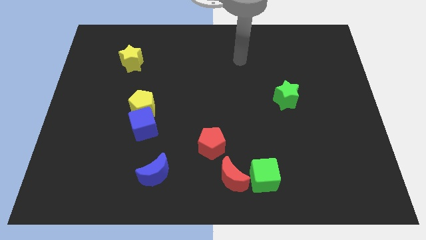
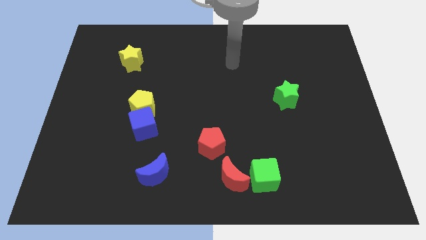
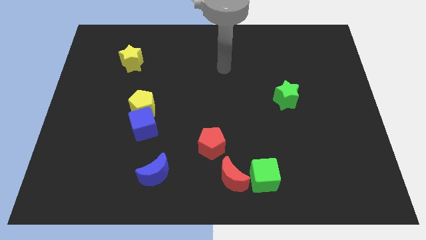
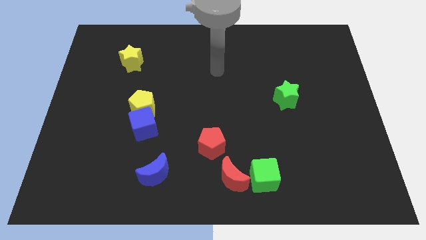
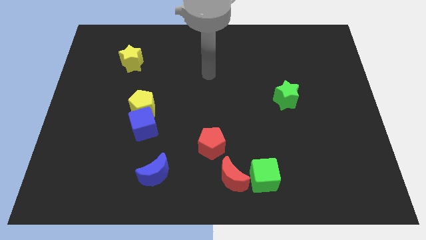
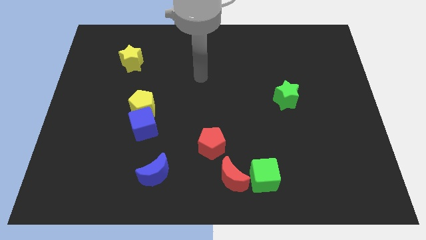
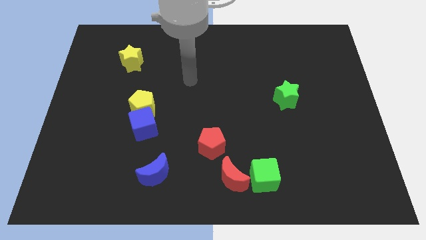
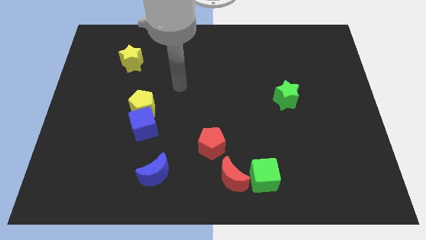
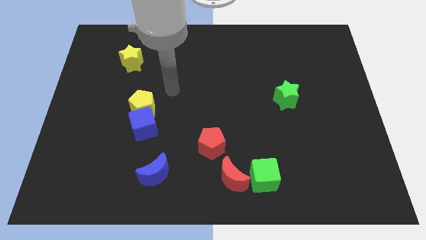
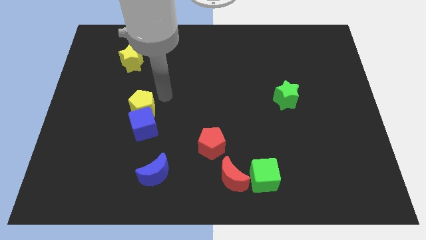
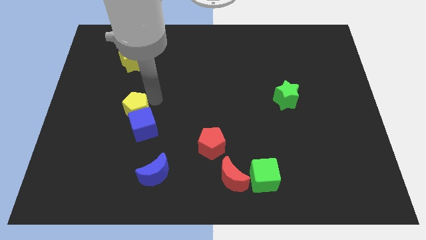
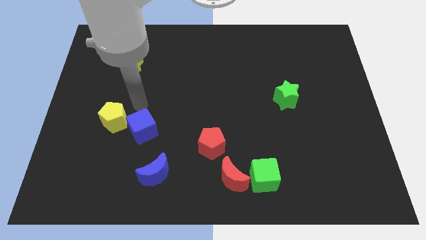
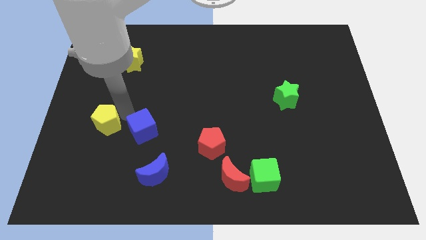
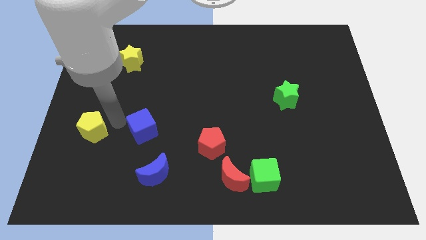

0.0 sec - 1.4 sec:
pull the blue cube apart from the yellow pentagon

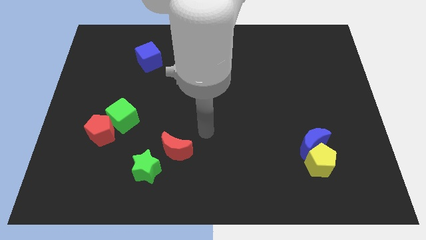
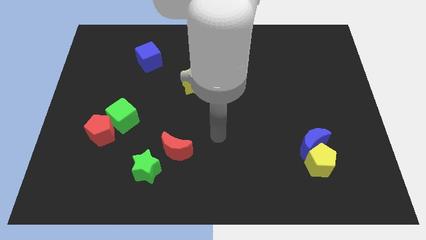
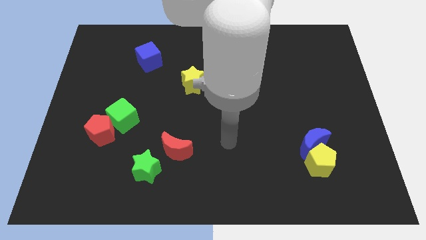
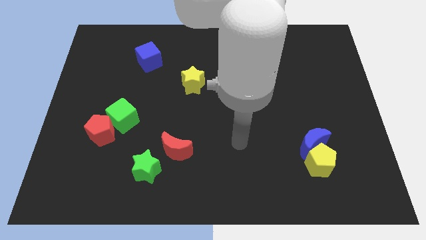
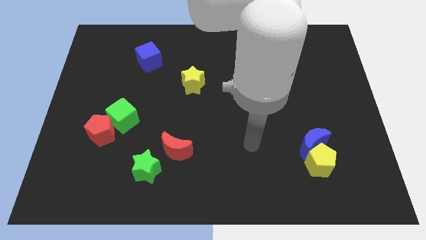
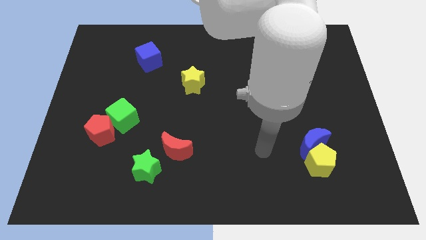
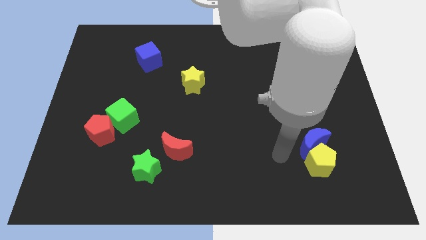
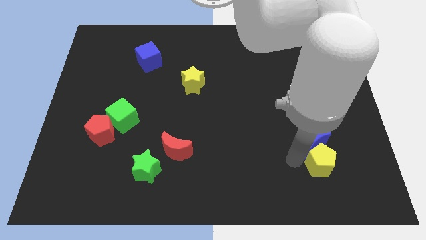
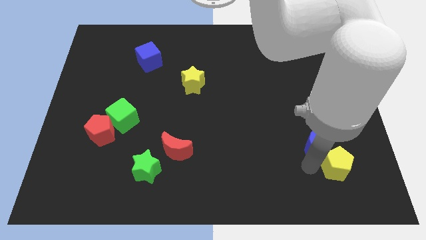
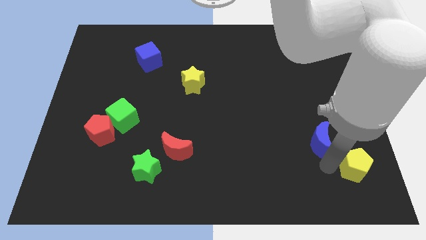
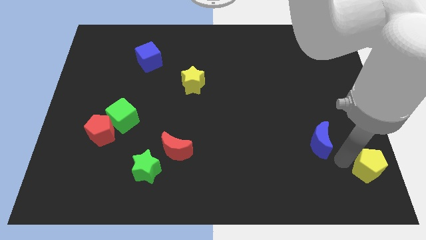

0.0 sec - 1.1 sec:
move the blue moon away from the yellow pentagon

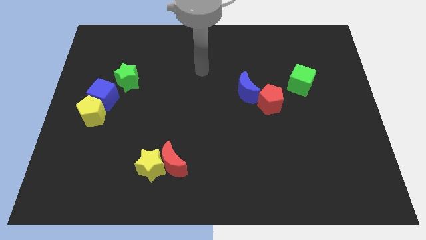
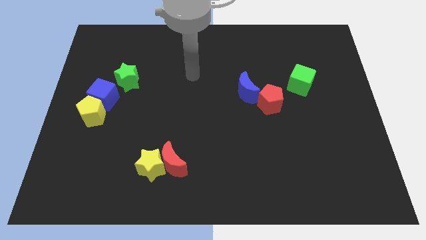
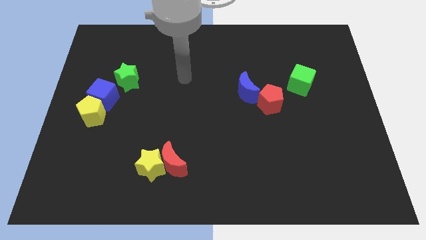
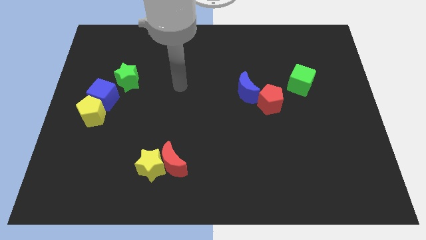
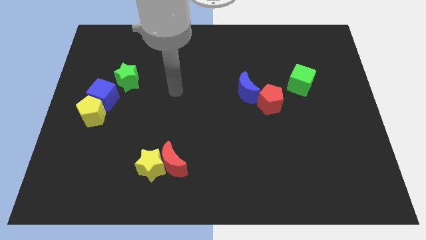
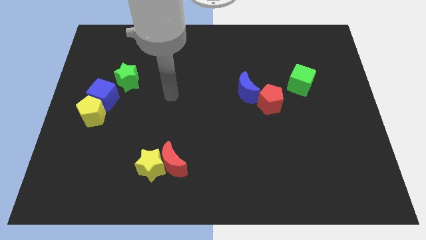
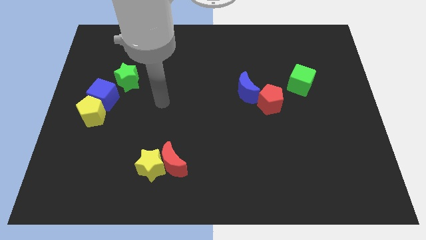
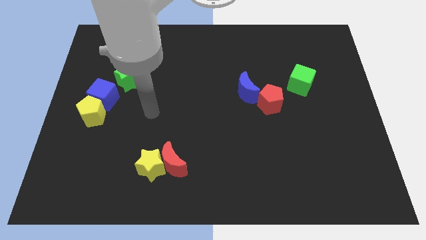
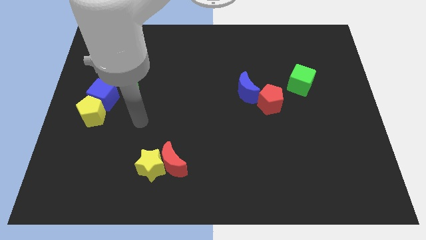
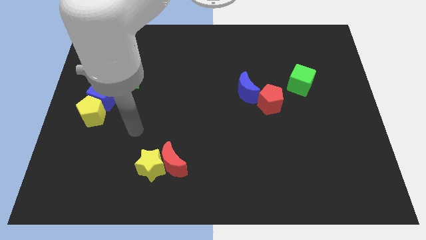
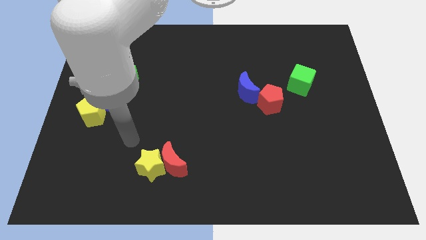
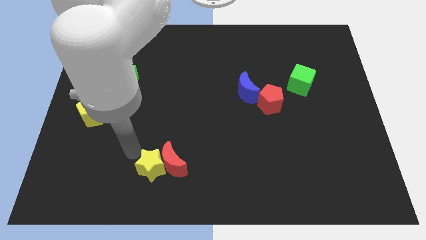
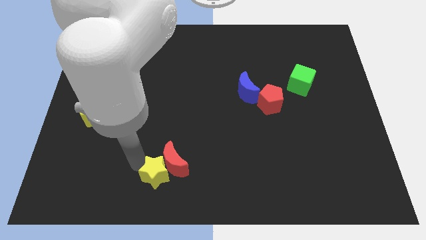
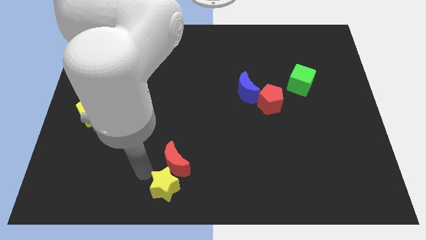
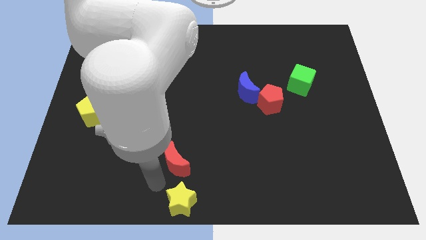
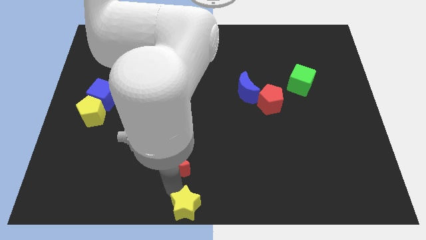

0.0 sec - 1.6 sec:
separate the red moon from the yellow star

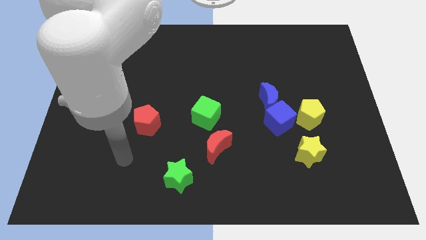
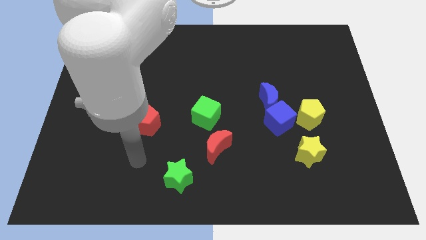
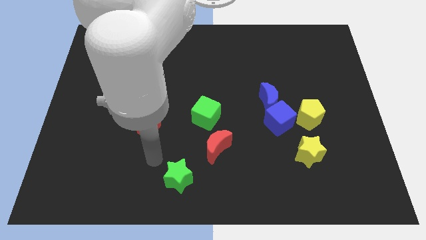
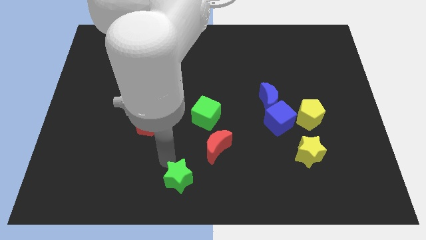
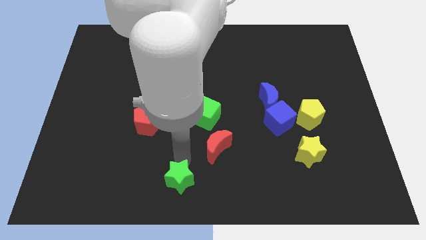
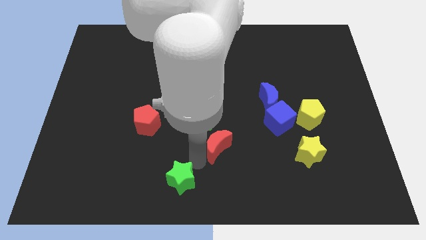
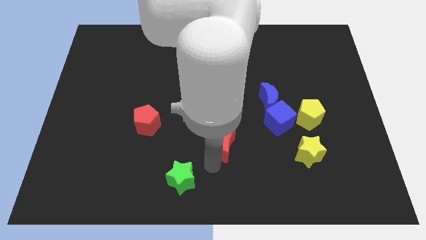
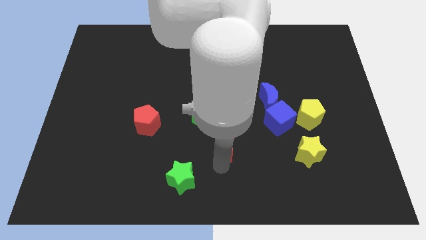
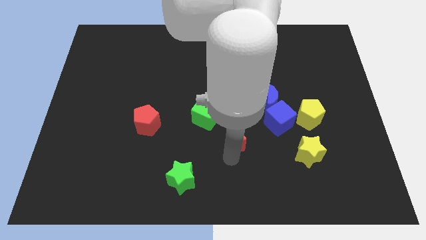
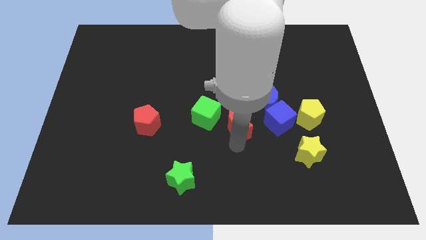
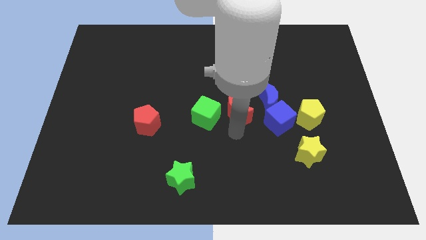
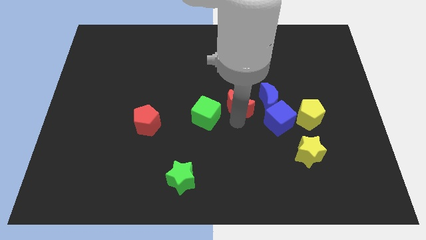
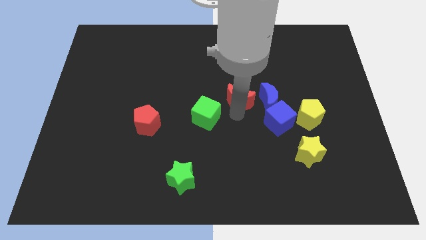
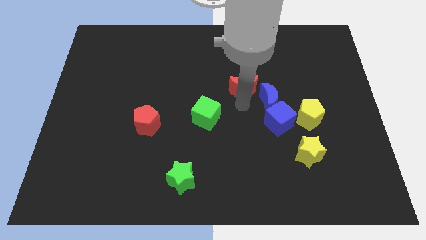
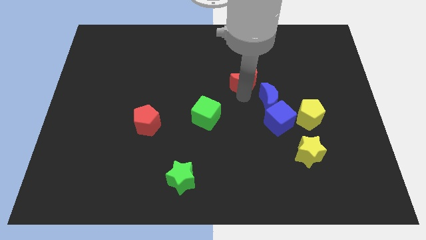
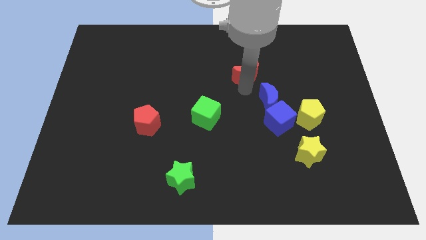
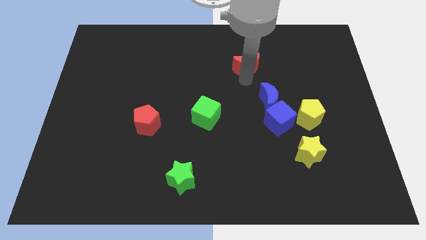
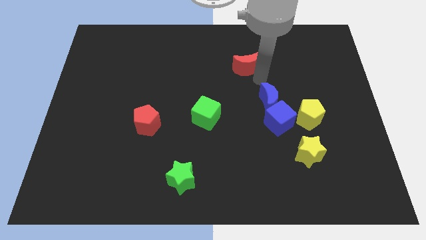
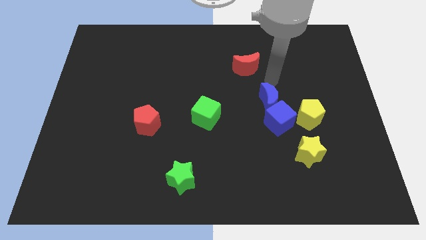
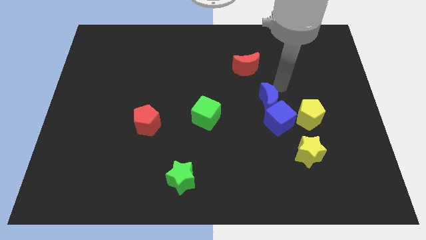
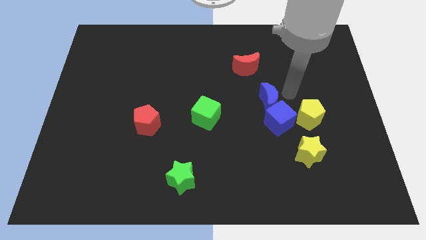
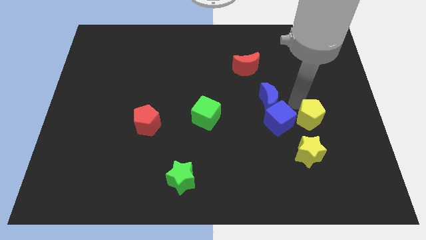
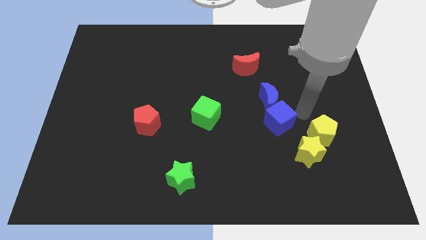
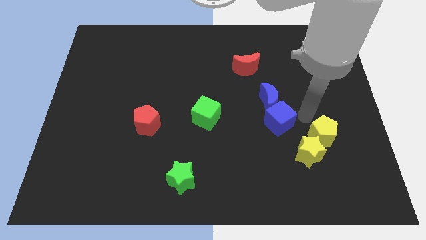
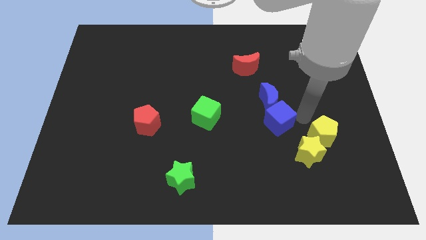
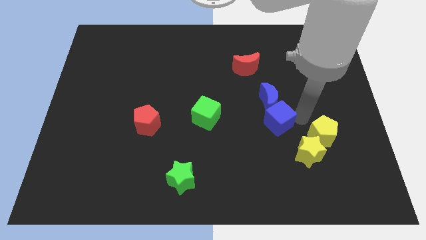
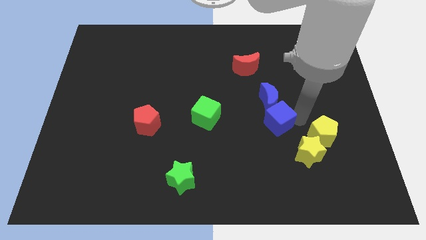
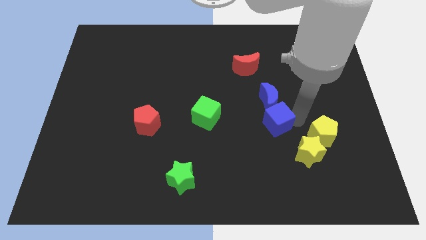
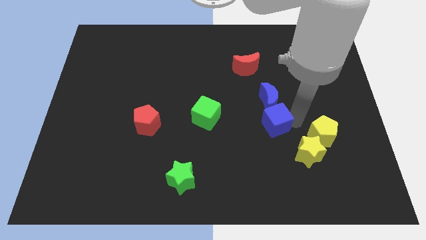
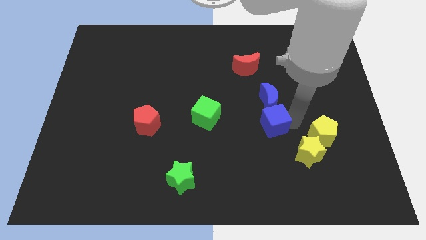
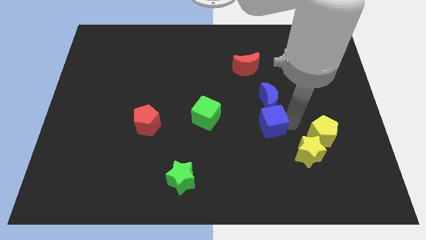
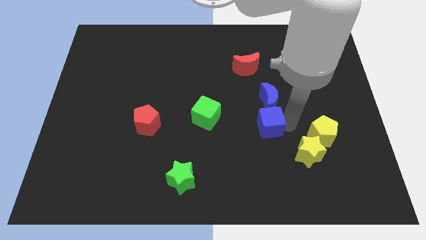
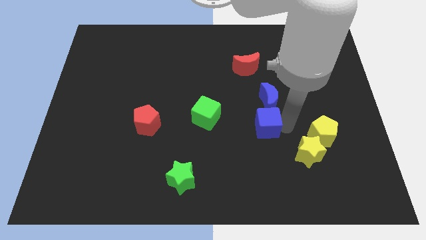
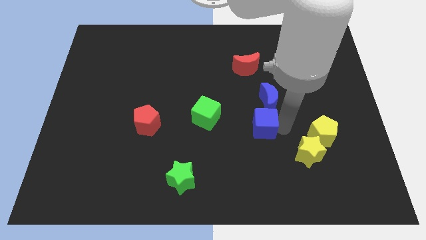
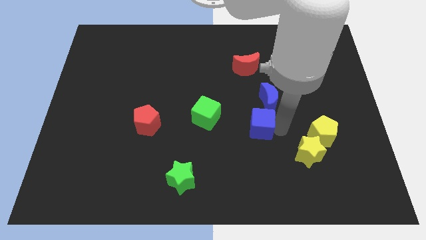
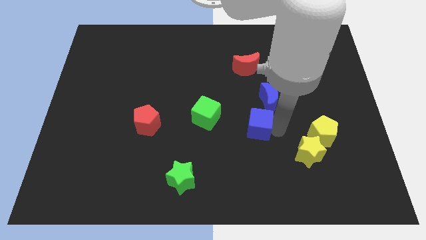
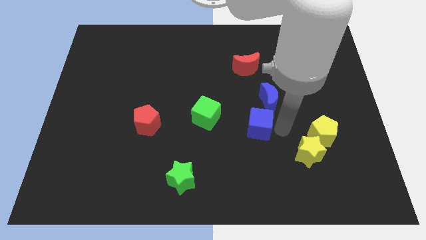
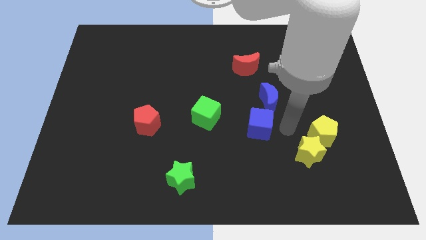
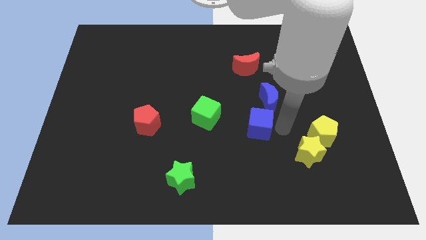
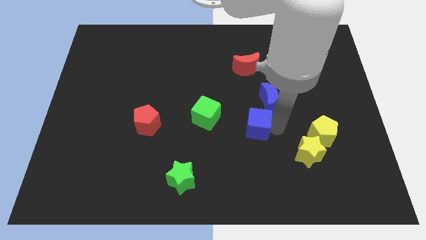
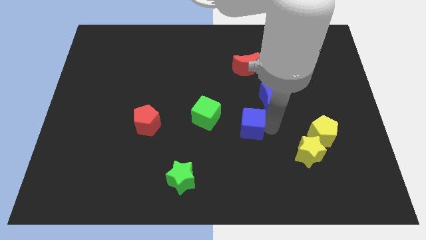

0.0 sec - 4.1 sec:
move the blue cube away from the clump

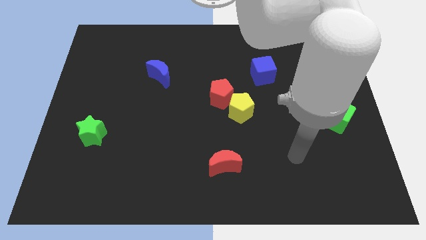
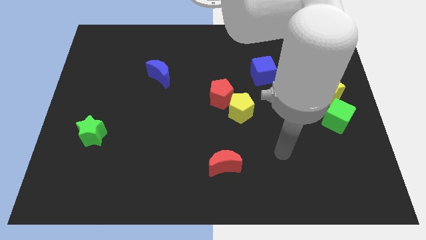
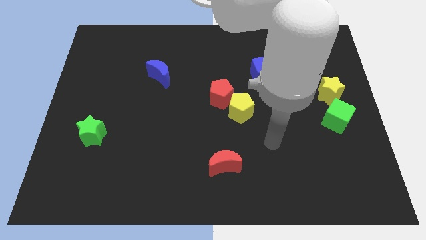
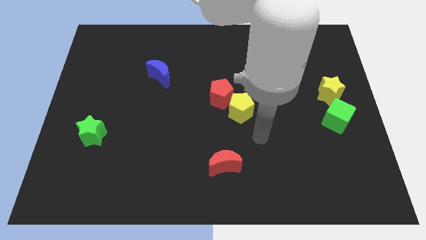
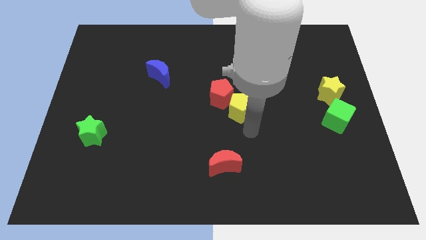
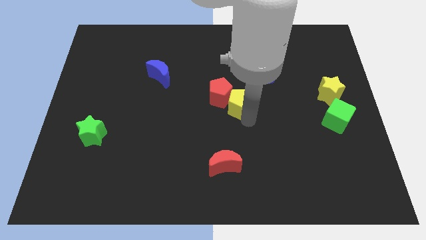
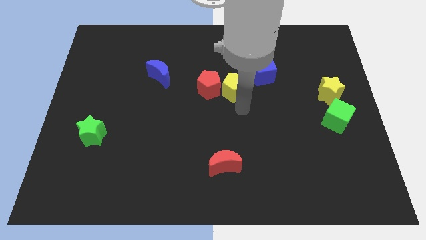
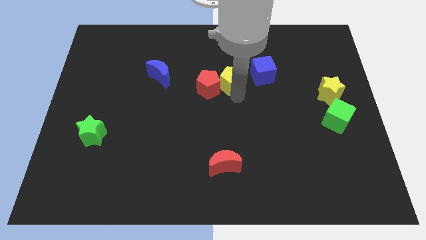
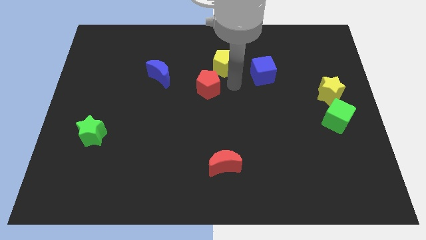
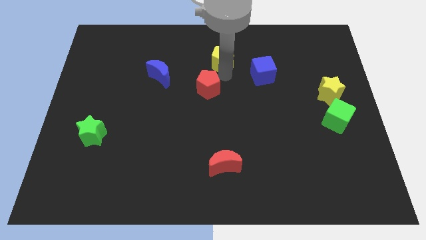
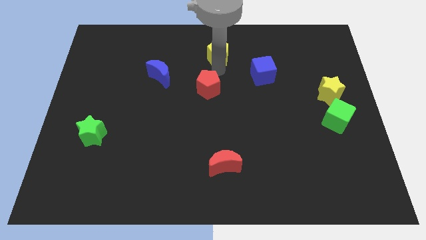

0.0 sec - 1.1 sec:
pull the red pentagon apart from the yellow pentagon
